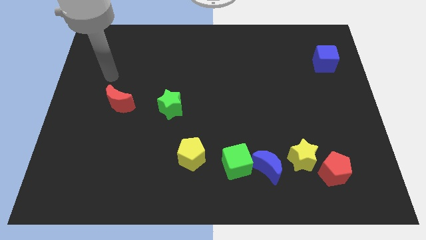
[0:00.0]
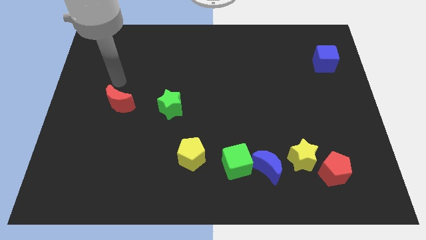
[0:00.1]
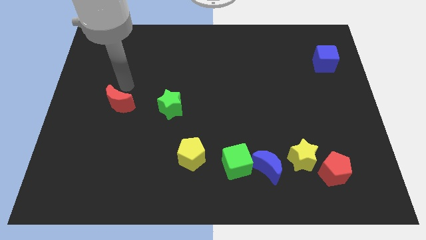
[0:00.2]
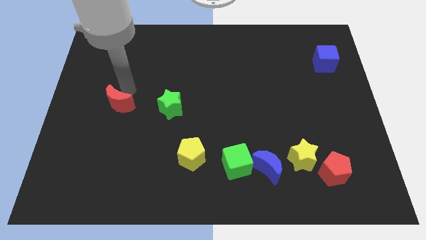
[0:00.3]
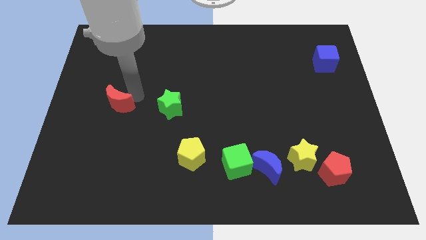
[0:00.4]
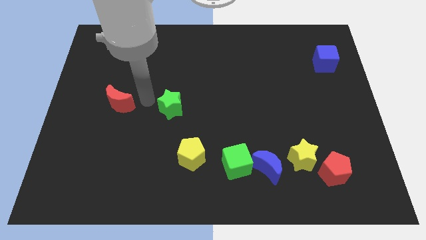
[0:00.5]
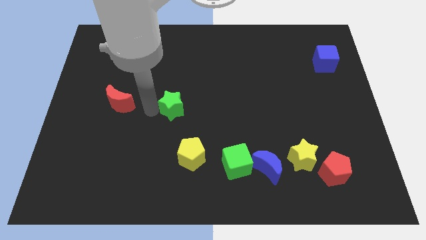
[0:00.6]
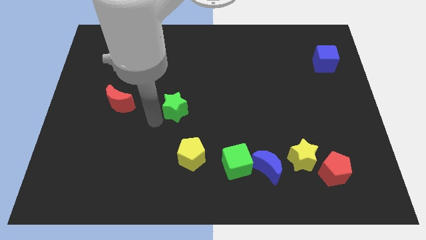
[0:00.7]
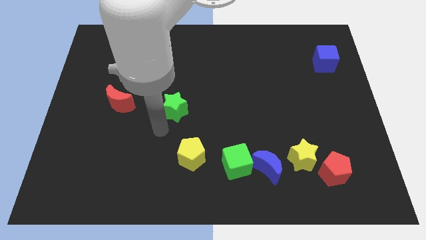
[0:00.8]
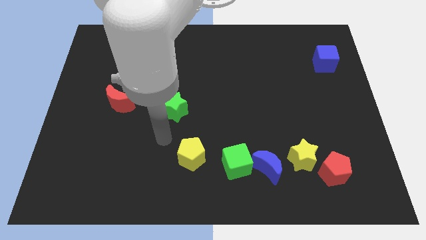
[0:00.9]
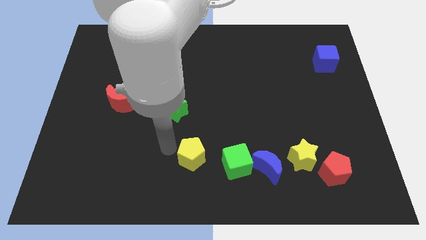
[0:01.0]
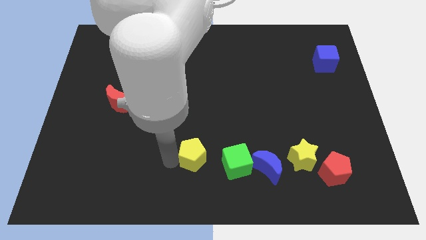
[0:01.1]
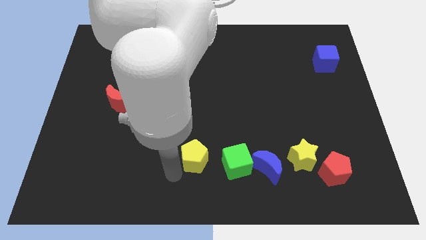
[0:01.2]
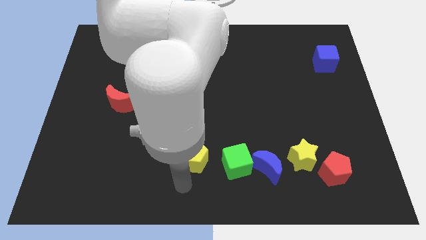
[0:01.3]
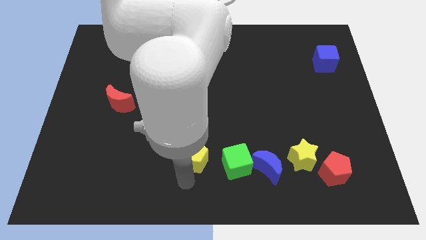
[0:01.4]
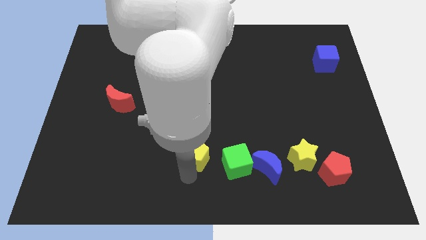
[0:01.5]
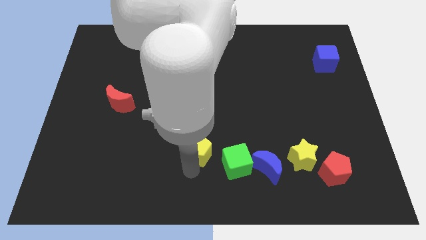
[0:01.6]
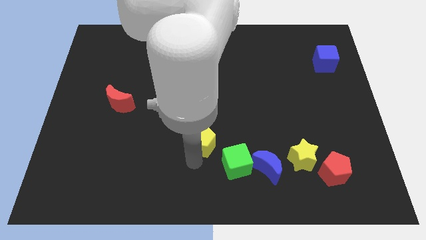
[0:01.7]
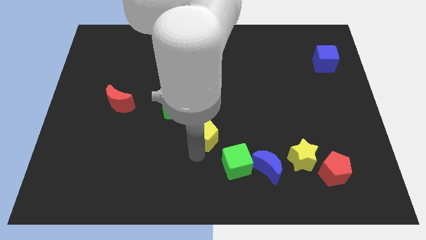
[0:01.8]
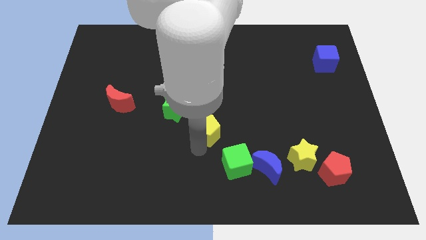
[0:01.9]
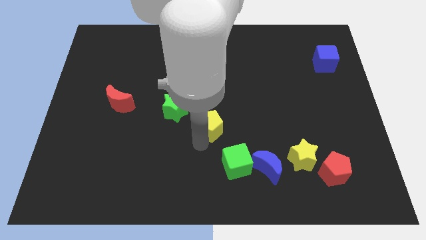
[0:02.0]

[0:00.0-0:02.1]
slightly slide the yellow pentagon up and to the right

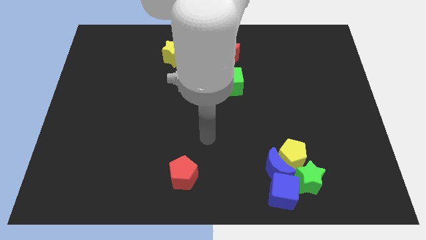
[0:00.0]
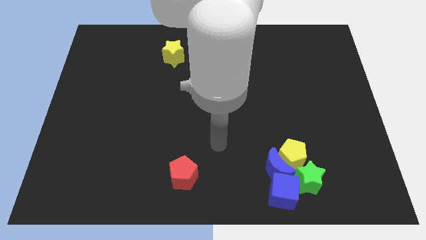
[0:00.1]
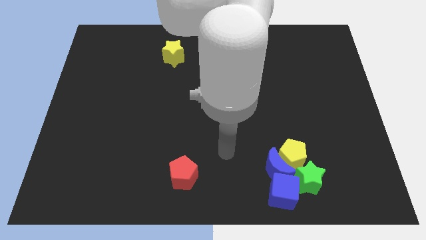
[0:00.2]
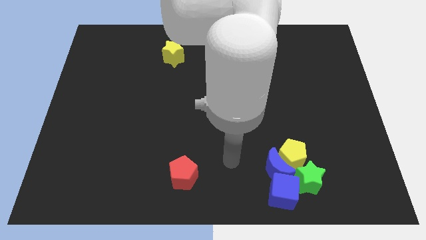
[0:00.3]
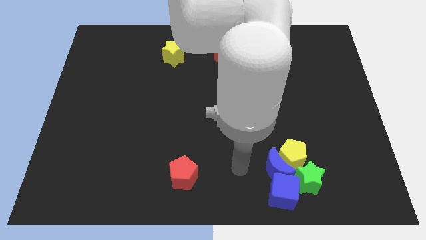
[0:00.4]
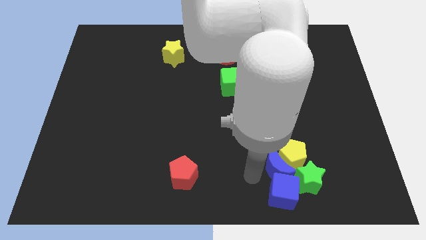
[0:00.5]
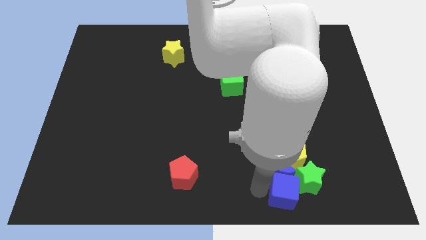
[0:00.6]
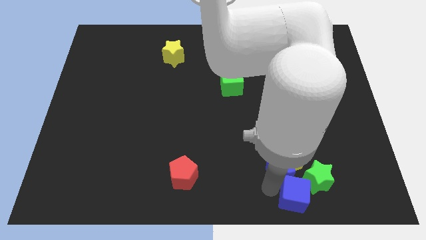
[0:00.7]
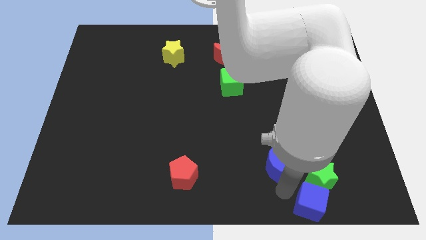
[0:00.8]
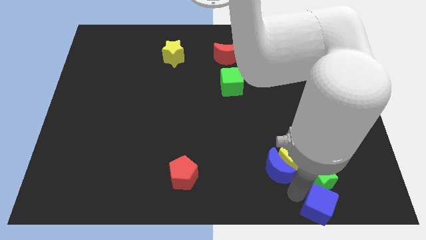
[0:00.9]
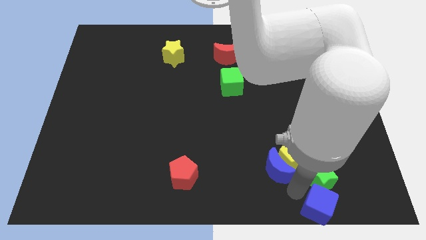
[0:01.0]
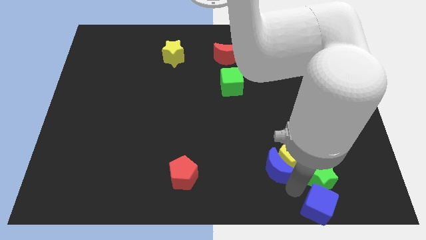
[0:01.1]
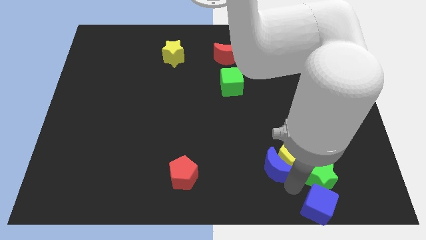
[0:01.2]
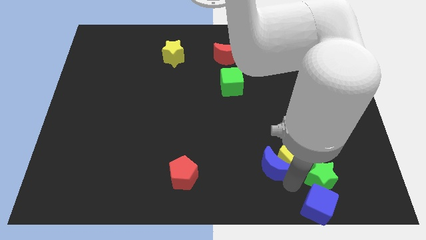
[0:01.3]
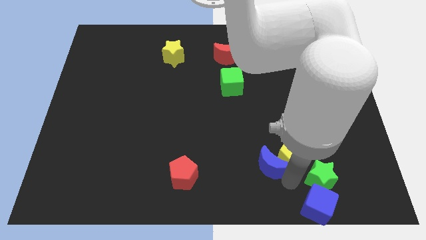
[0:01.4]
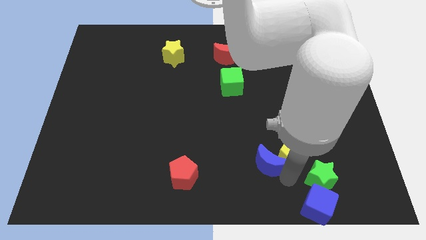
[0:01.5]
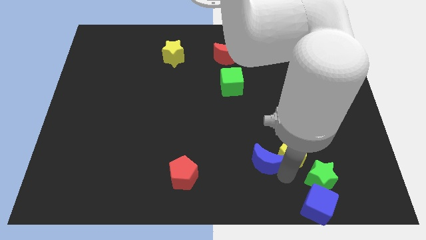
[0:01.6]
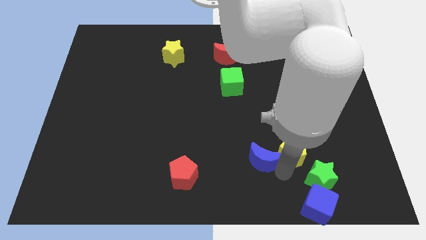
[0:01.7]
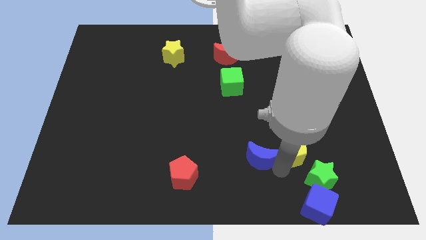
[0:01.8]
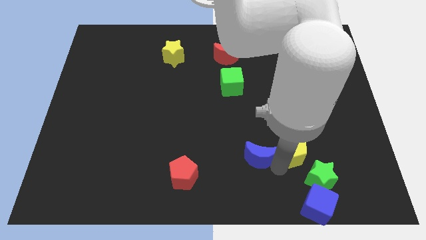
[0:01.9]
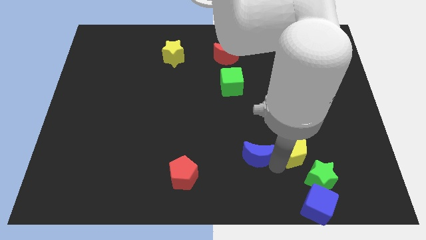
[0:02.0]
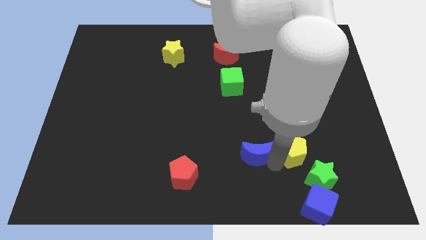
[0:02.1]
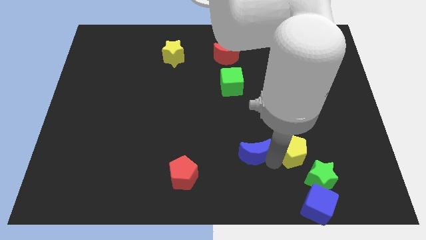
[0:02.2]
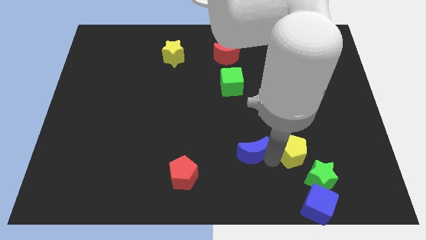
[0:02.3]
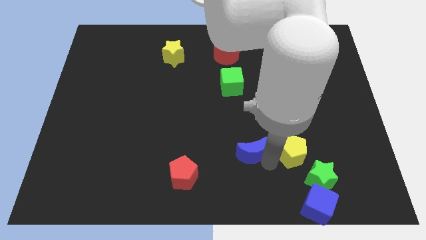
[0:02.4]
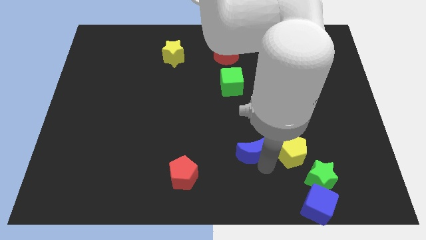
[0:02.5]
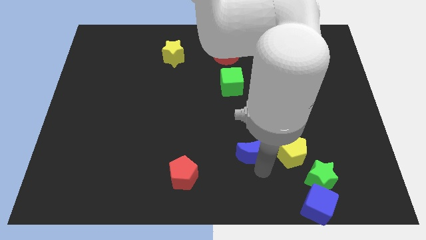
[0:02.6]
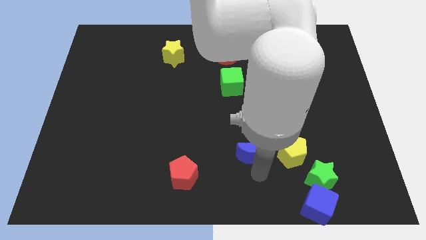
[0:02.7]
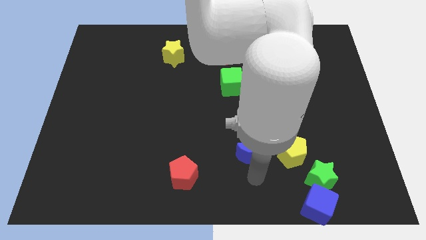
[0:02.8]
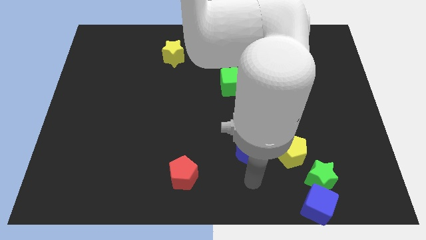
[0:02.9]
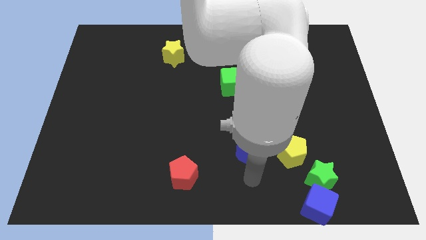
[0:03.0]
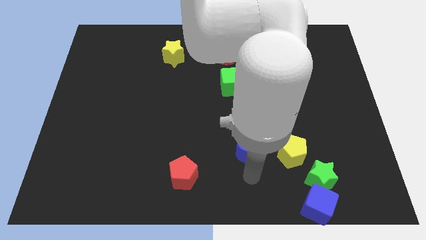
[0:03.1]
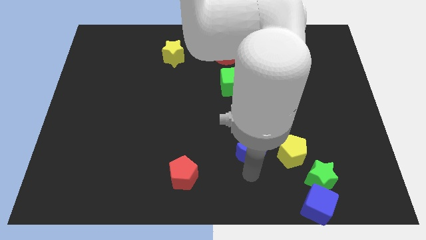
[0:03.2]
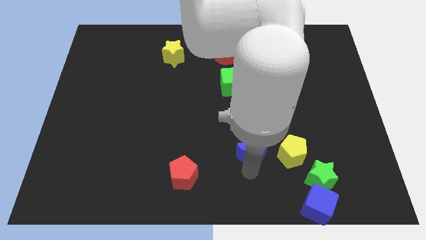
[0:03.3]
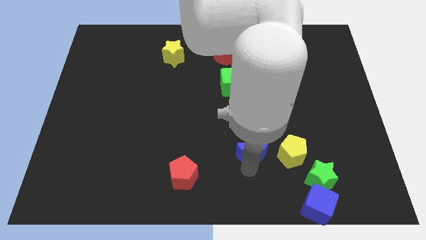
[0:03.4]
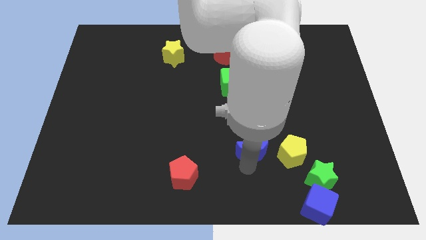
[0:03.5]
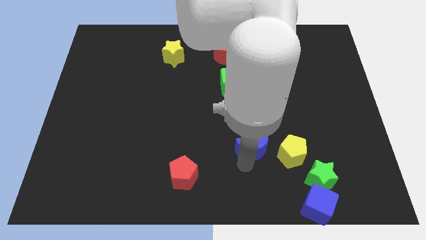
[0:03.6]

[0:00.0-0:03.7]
move the blue moon up and then to the left a bit

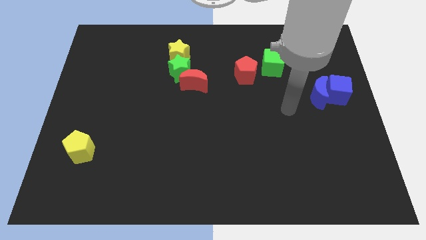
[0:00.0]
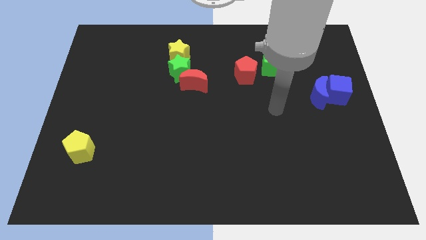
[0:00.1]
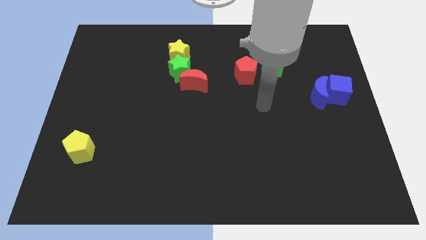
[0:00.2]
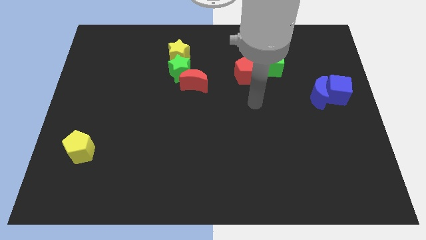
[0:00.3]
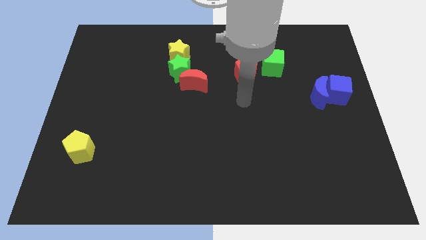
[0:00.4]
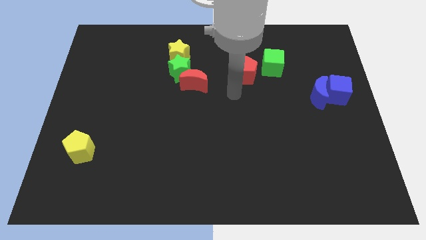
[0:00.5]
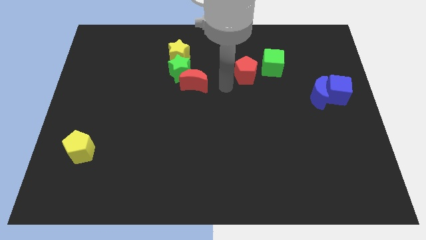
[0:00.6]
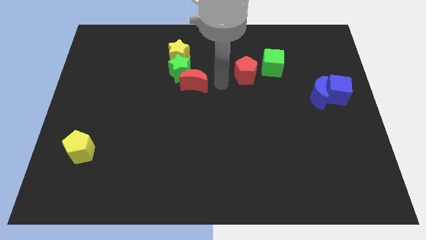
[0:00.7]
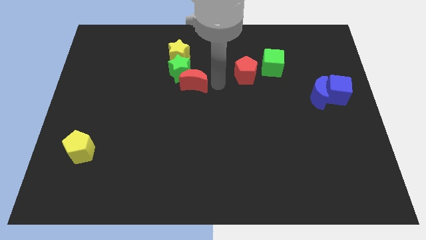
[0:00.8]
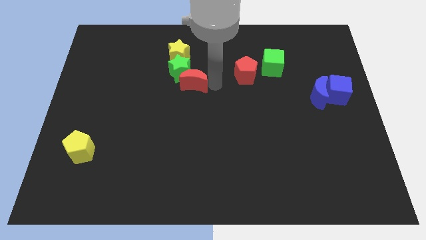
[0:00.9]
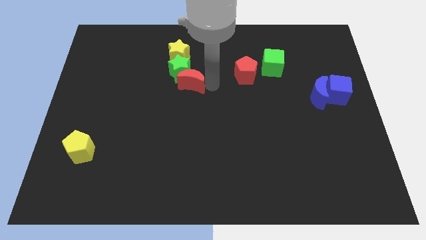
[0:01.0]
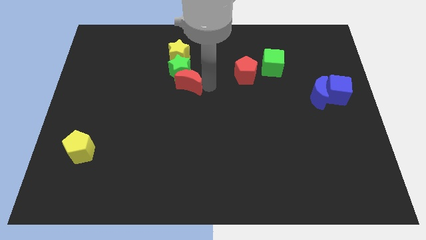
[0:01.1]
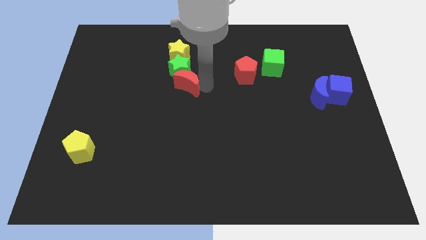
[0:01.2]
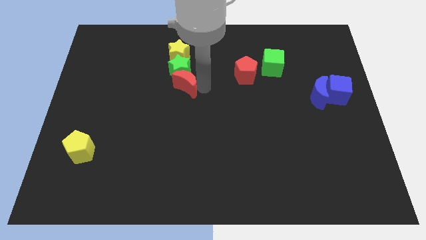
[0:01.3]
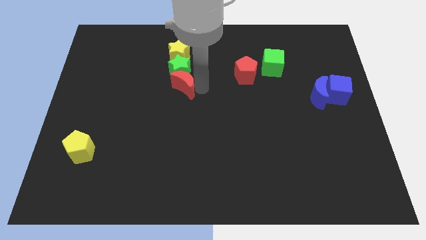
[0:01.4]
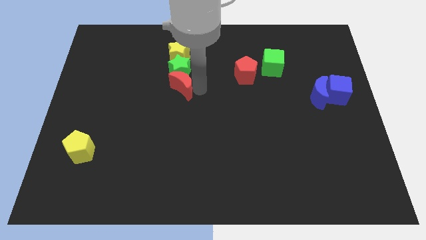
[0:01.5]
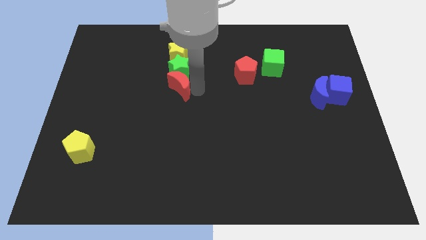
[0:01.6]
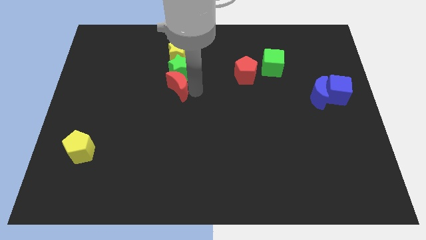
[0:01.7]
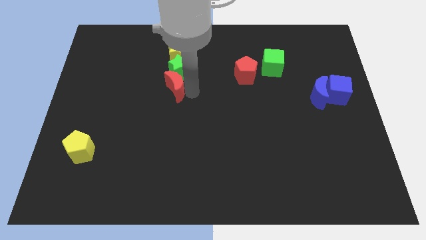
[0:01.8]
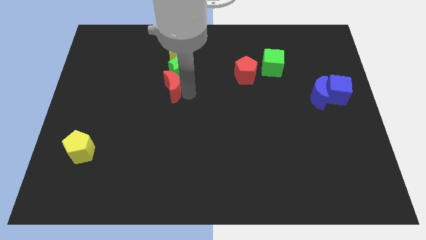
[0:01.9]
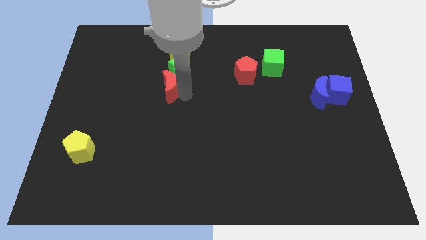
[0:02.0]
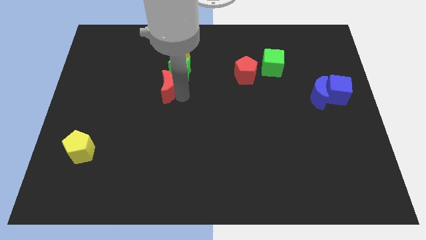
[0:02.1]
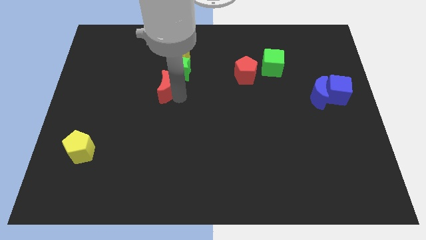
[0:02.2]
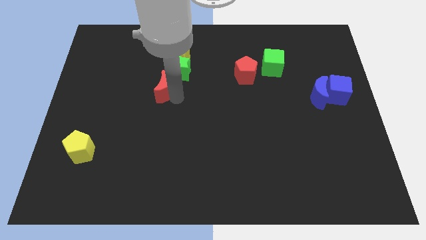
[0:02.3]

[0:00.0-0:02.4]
push the red moon a little left
